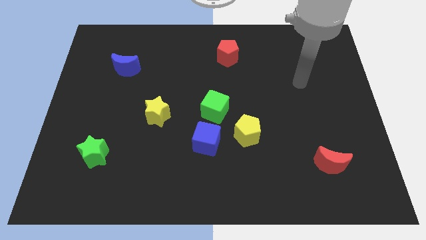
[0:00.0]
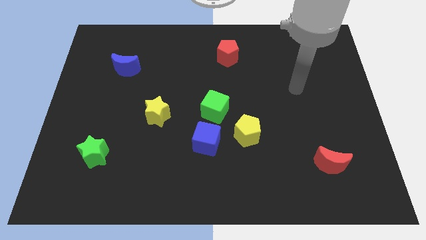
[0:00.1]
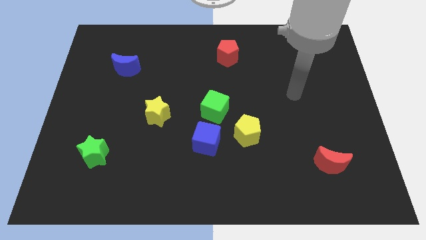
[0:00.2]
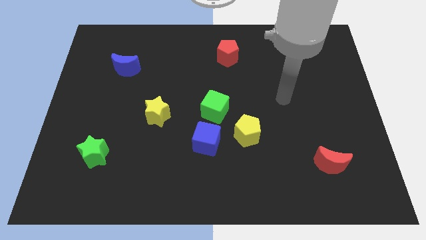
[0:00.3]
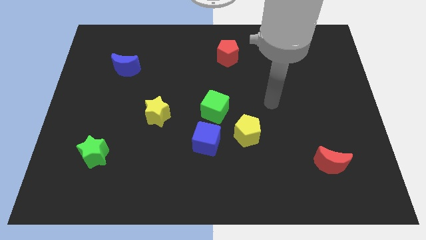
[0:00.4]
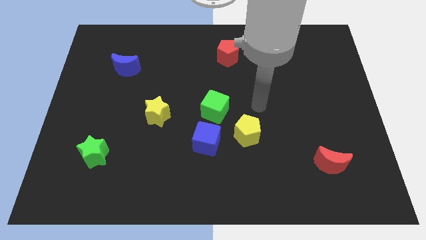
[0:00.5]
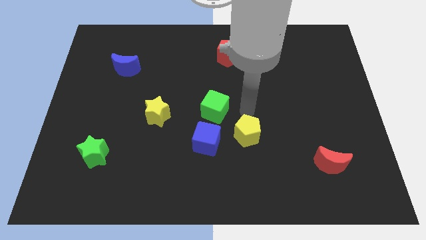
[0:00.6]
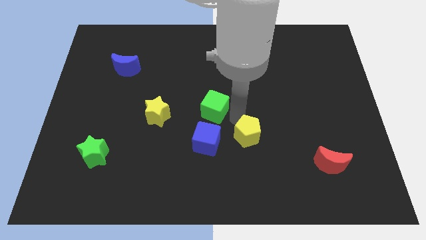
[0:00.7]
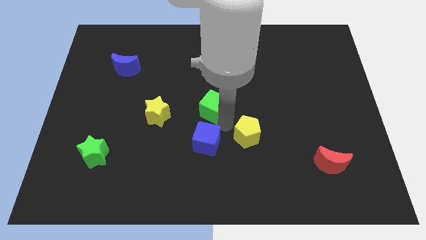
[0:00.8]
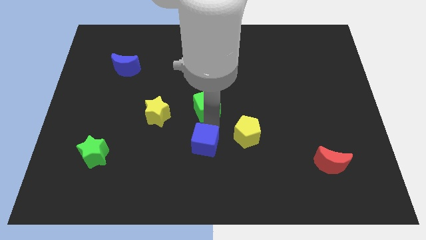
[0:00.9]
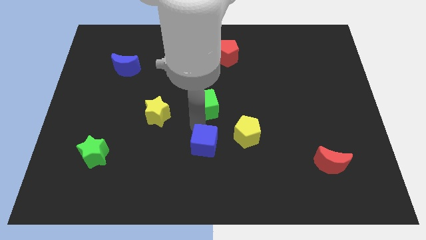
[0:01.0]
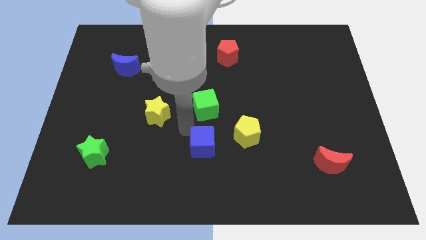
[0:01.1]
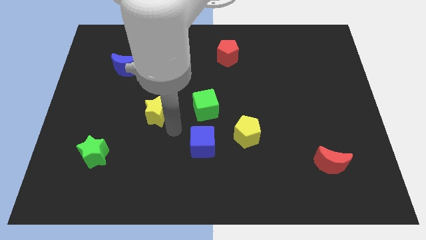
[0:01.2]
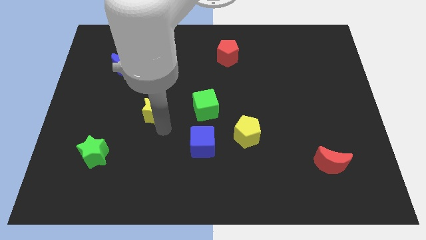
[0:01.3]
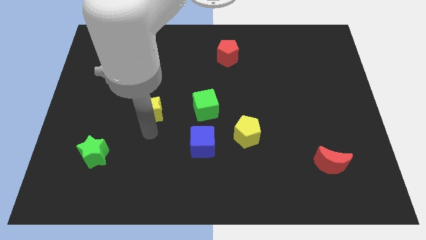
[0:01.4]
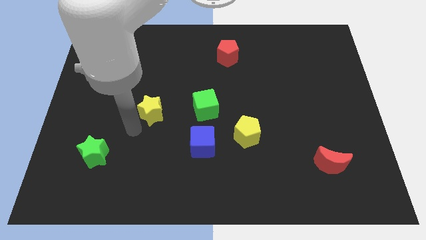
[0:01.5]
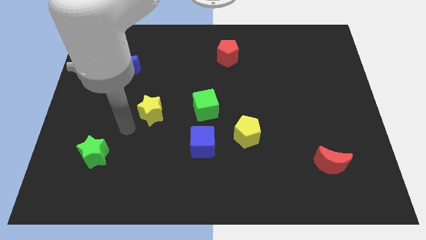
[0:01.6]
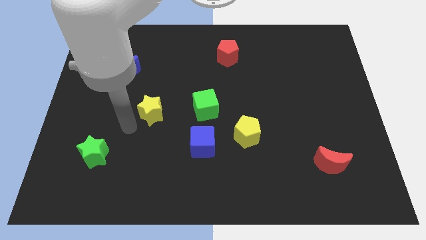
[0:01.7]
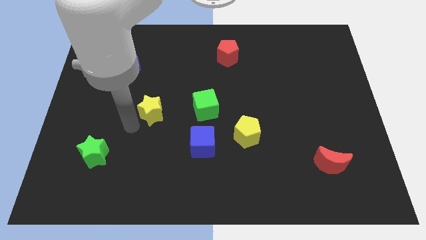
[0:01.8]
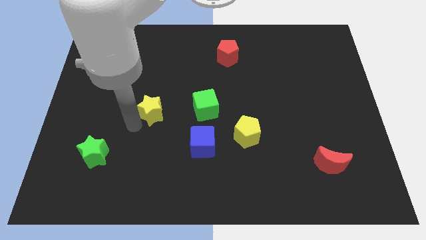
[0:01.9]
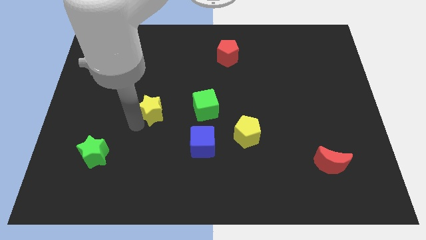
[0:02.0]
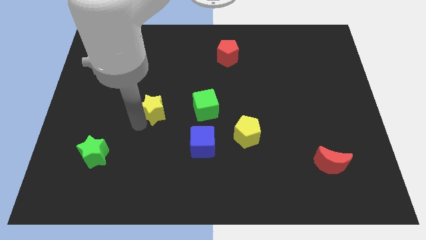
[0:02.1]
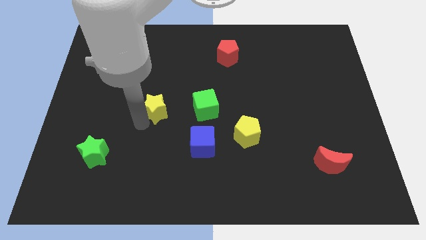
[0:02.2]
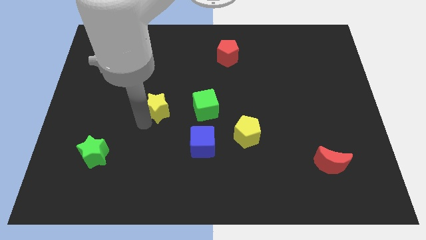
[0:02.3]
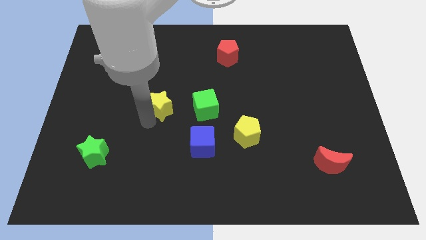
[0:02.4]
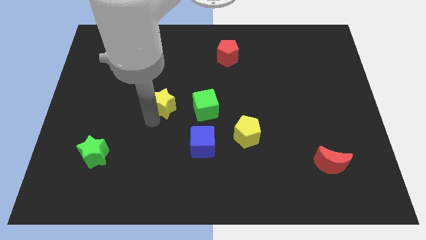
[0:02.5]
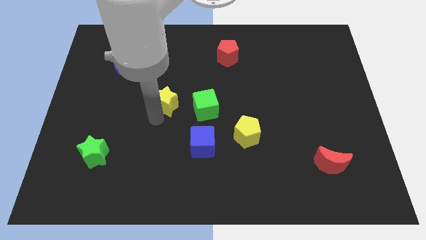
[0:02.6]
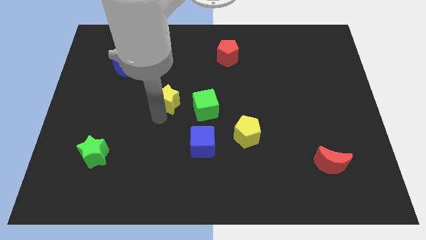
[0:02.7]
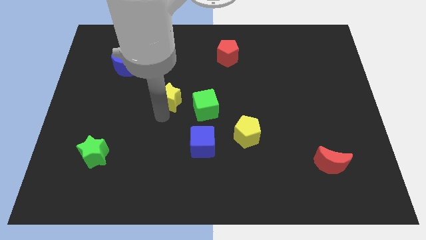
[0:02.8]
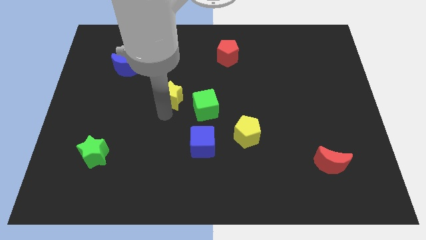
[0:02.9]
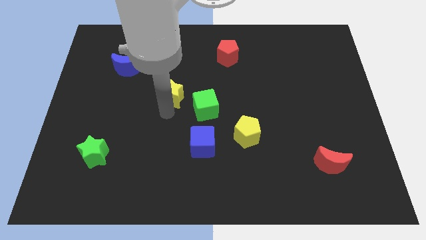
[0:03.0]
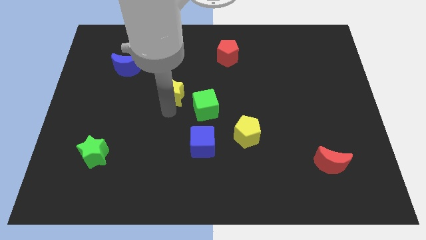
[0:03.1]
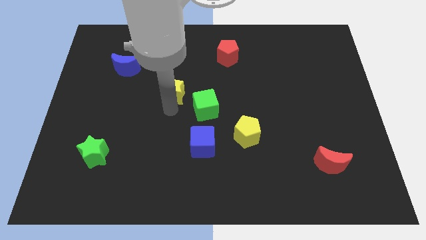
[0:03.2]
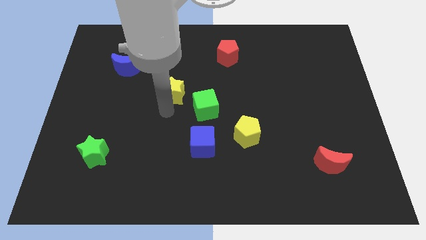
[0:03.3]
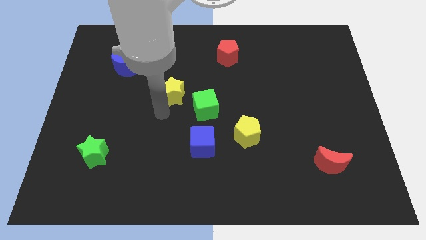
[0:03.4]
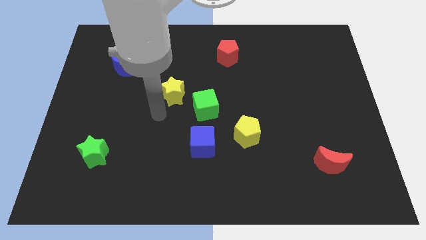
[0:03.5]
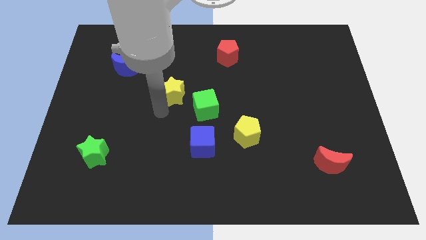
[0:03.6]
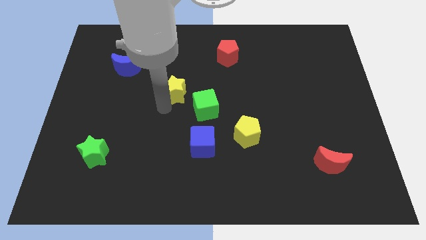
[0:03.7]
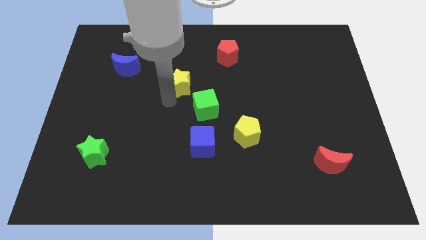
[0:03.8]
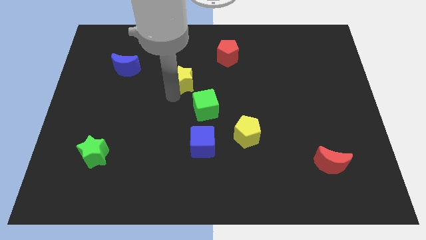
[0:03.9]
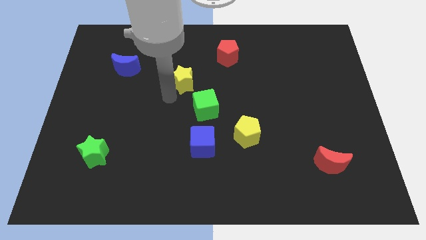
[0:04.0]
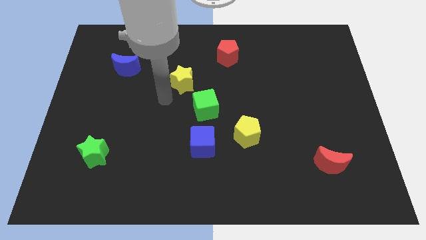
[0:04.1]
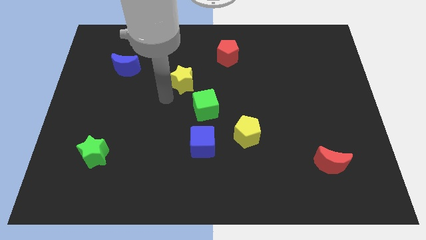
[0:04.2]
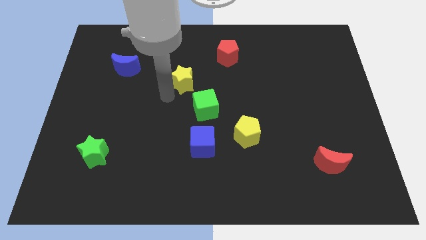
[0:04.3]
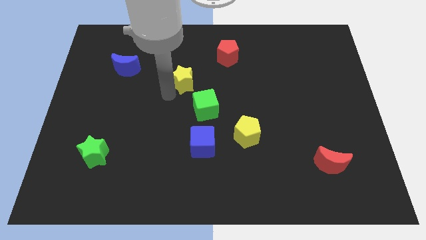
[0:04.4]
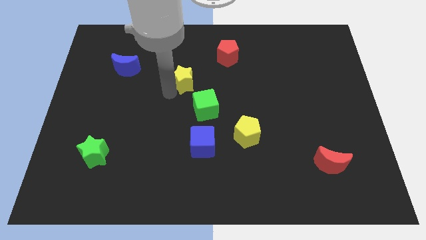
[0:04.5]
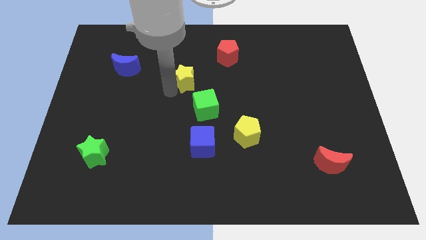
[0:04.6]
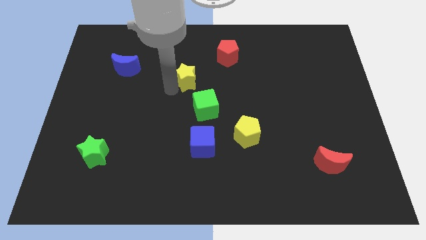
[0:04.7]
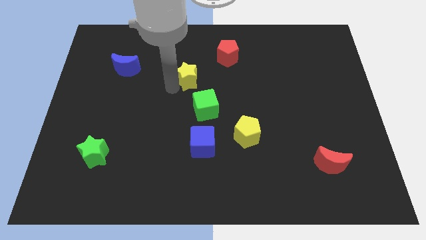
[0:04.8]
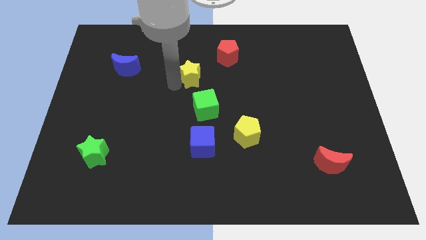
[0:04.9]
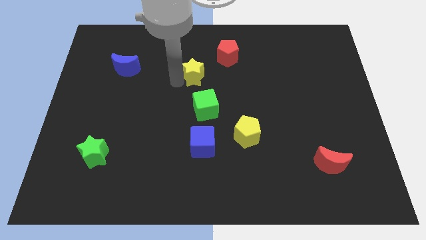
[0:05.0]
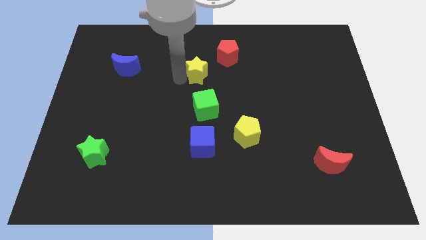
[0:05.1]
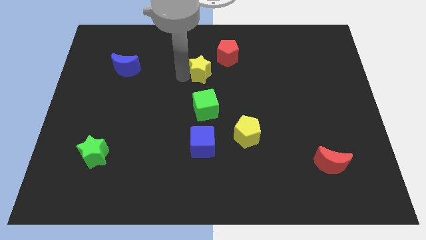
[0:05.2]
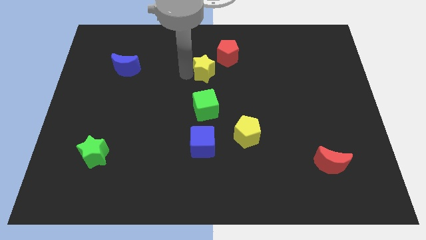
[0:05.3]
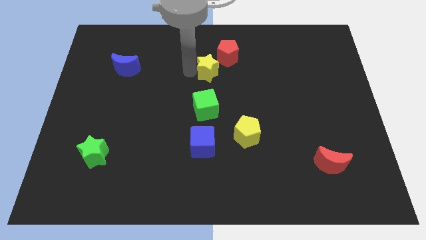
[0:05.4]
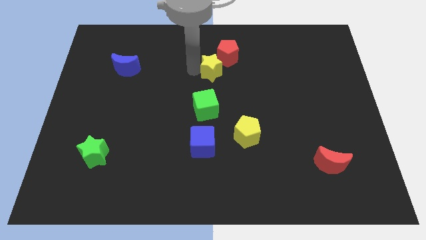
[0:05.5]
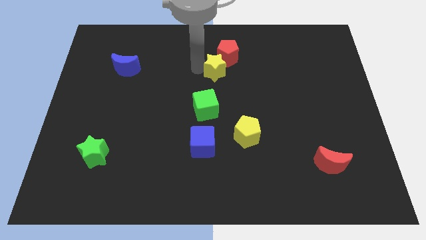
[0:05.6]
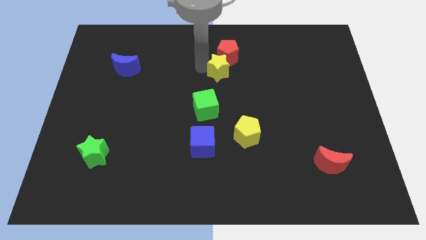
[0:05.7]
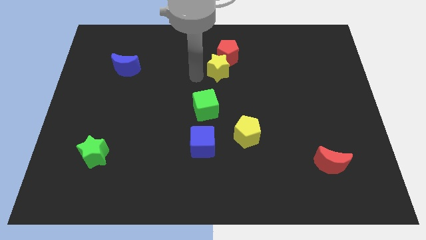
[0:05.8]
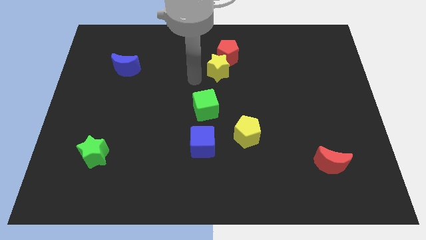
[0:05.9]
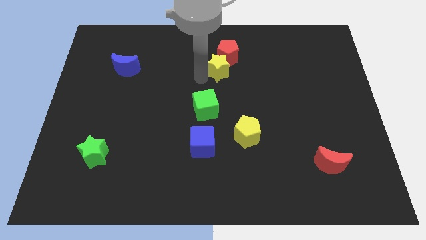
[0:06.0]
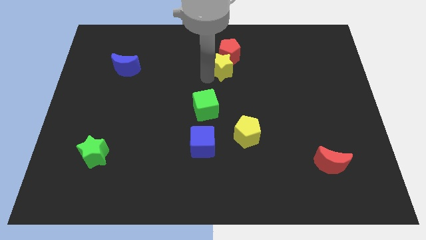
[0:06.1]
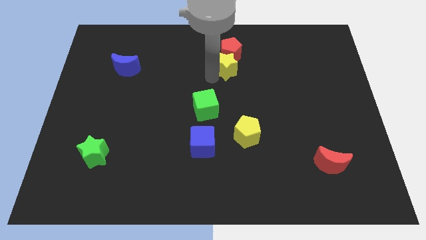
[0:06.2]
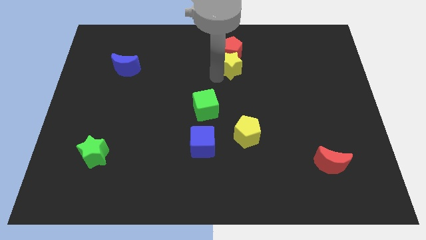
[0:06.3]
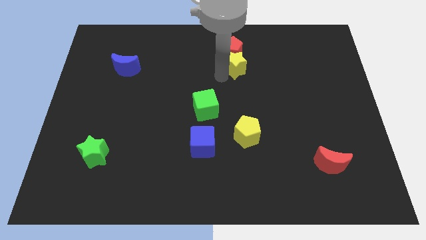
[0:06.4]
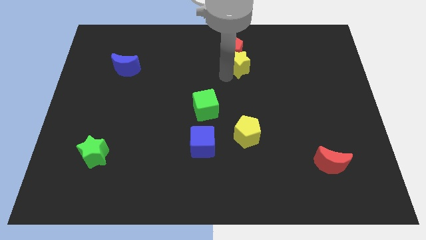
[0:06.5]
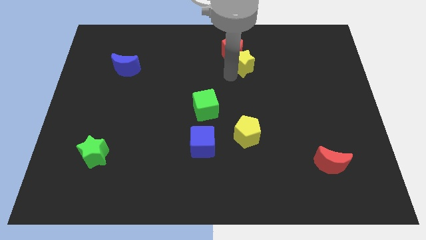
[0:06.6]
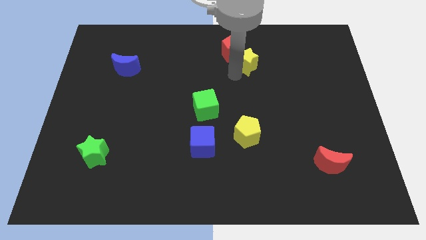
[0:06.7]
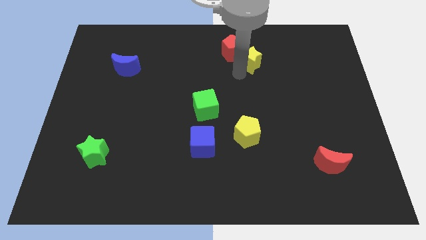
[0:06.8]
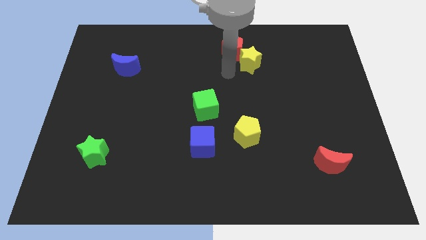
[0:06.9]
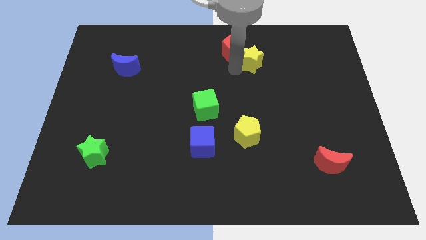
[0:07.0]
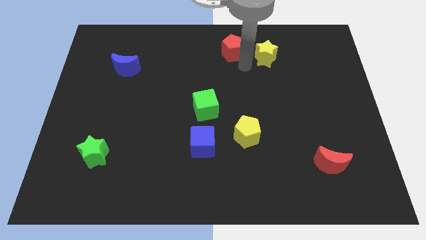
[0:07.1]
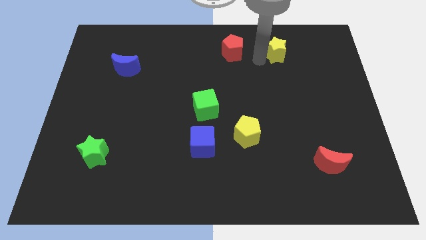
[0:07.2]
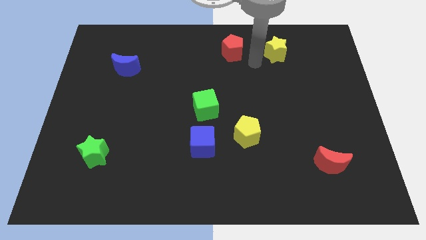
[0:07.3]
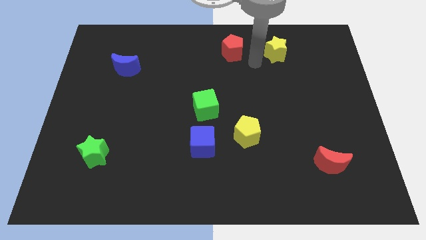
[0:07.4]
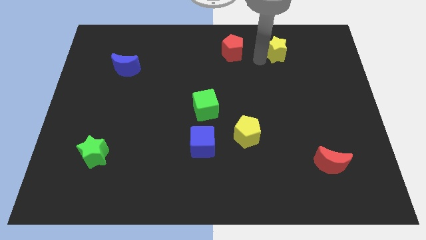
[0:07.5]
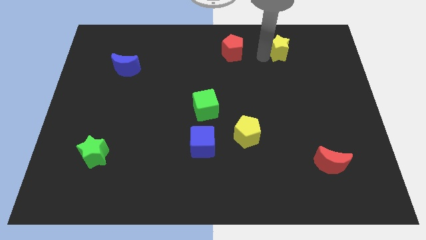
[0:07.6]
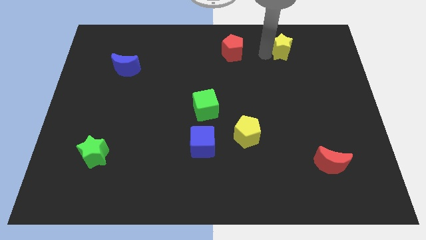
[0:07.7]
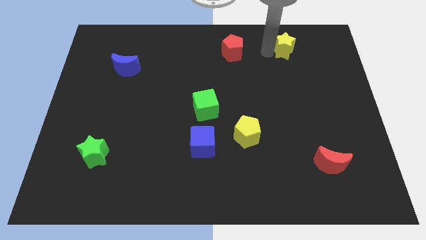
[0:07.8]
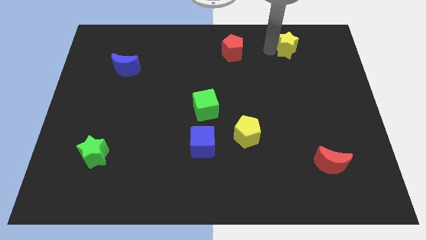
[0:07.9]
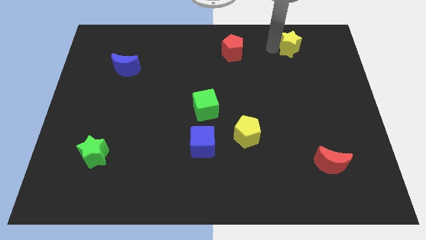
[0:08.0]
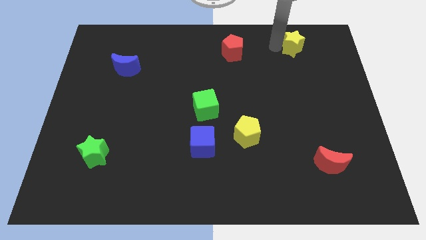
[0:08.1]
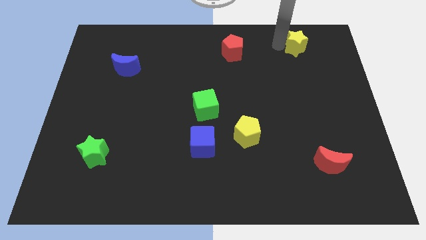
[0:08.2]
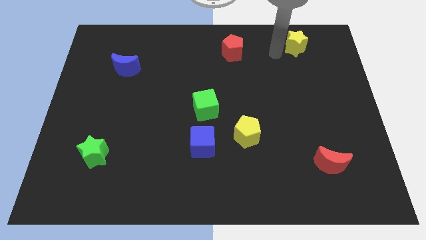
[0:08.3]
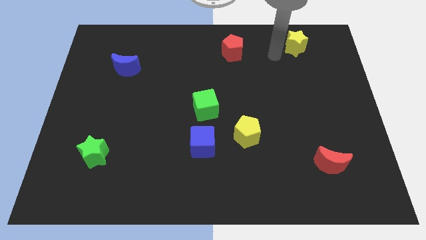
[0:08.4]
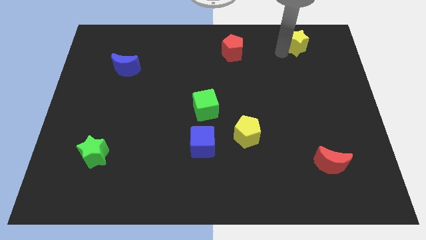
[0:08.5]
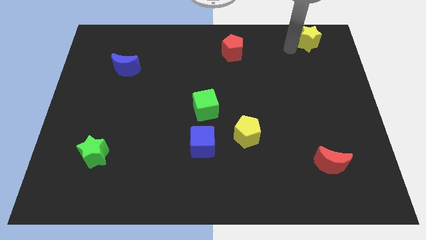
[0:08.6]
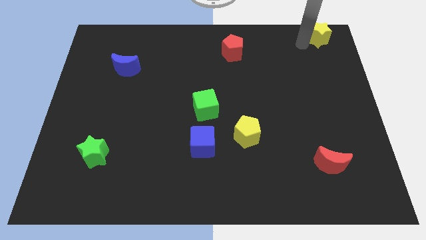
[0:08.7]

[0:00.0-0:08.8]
put the yellow star to the upper right corner
